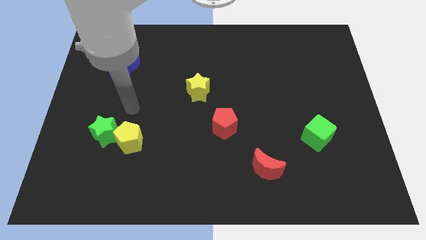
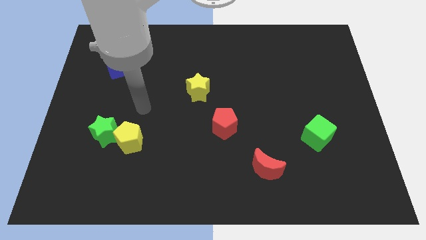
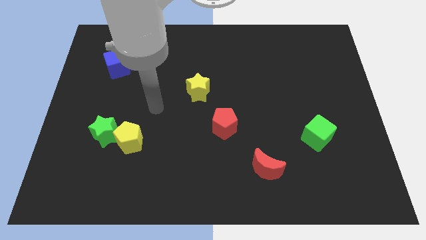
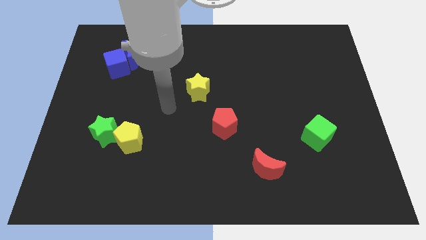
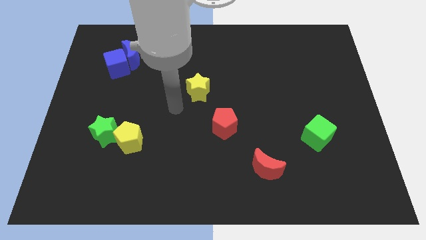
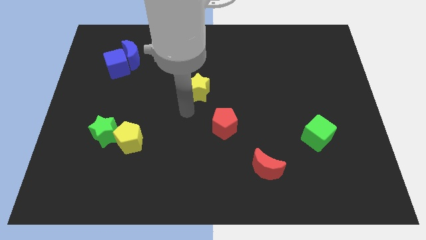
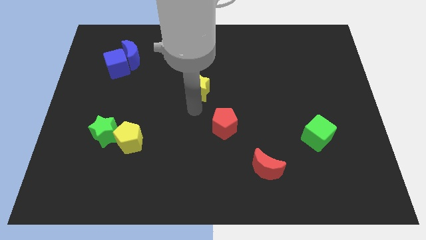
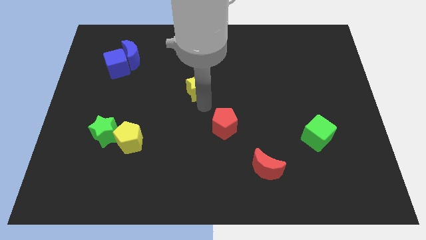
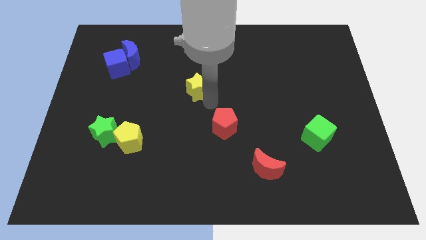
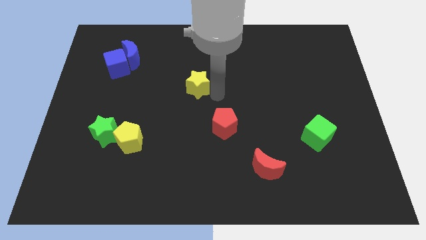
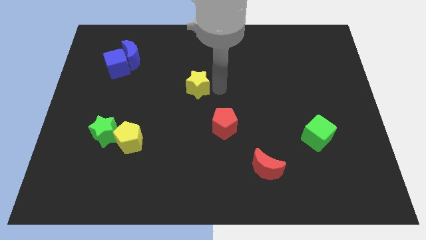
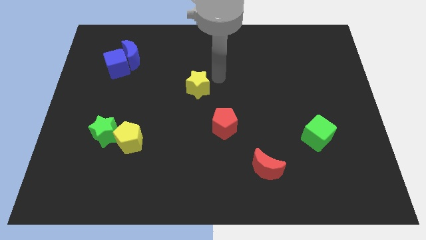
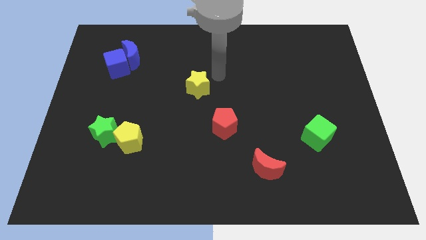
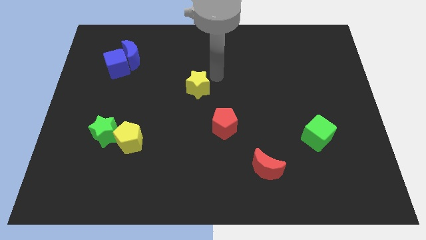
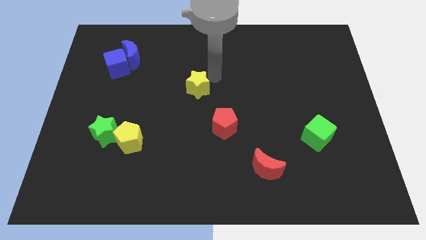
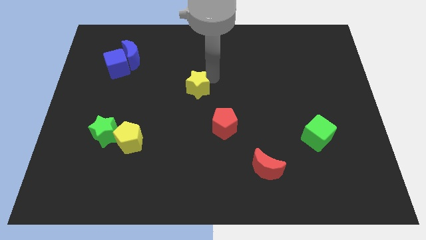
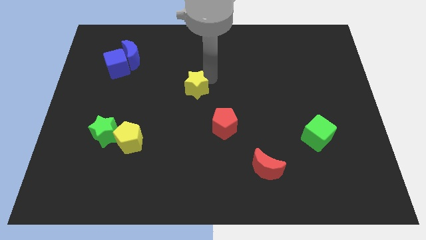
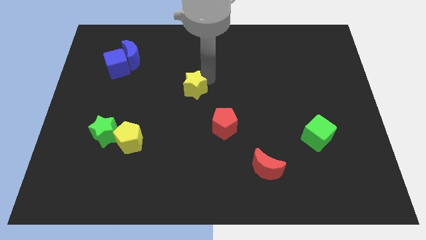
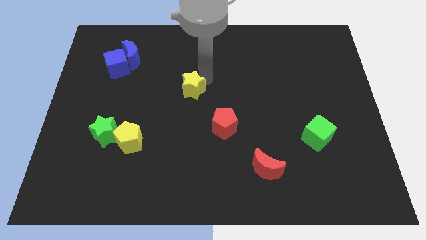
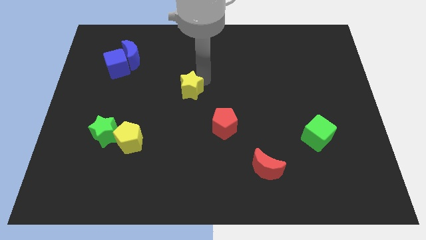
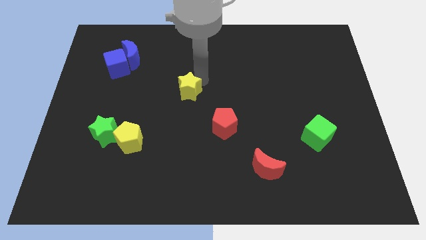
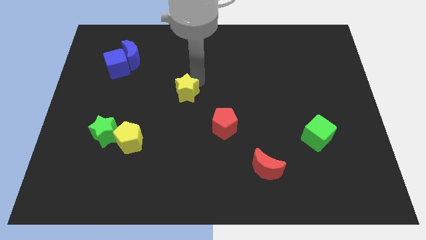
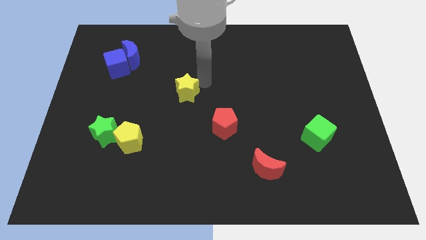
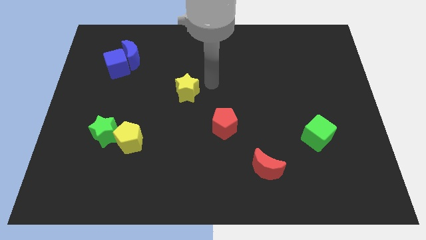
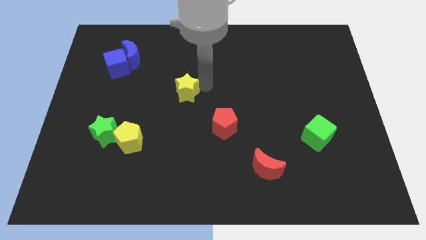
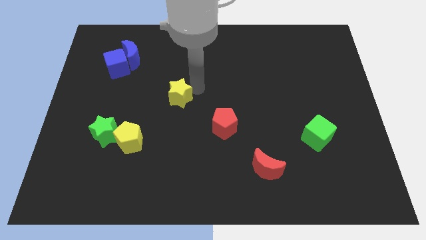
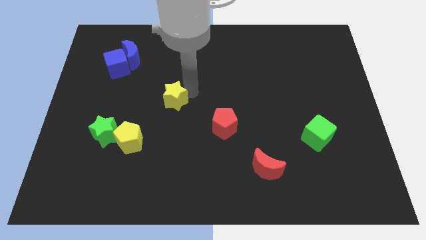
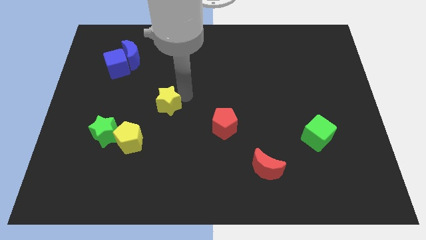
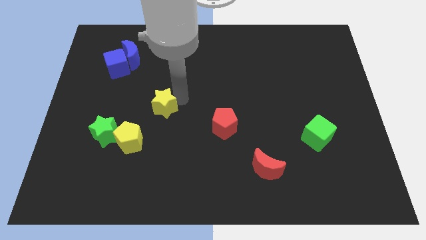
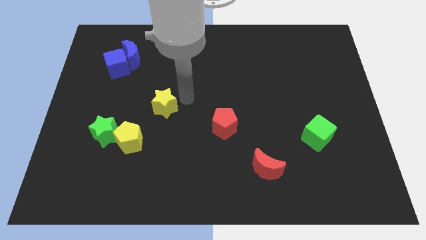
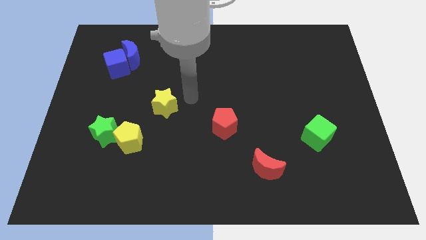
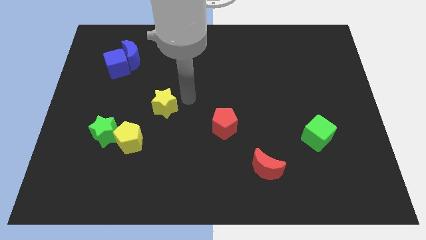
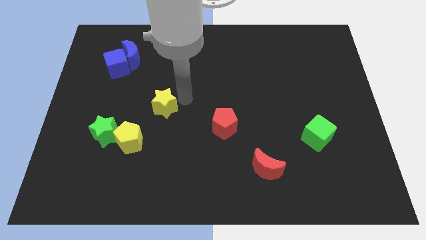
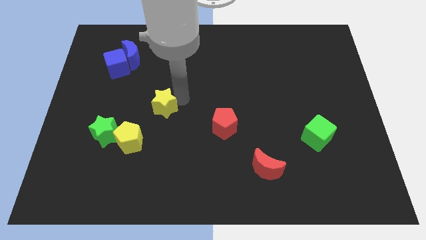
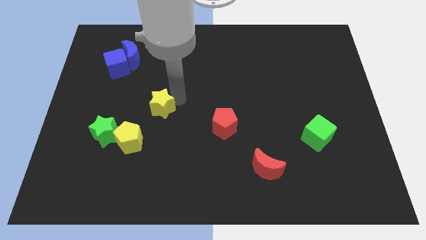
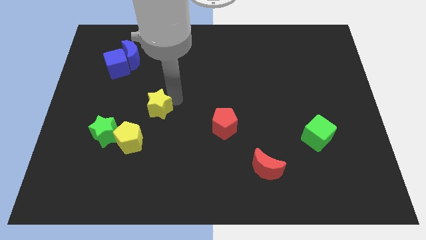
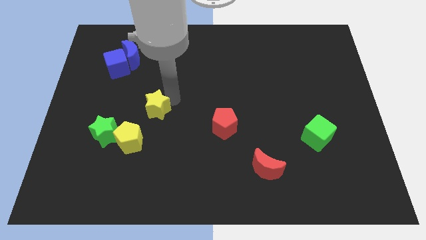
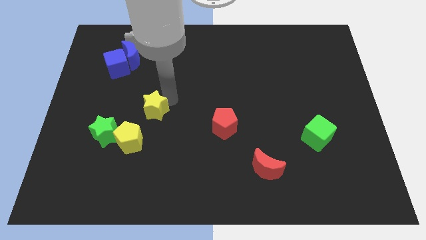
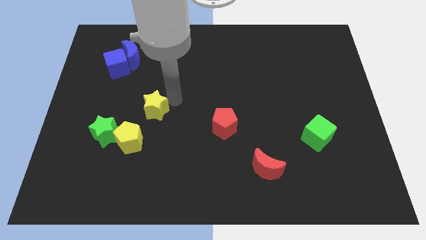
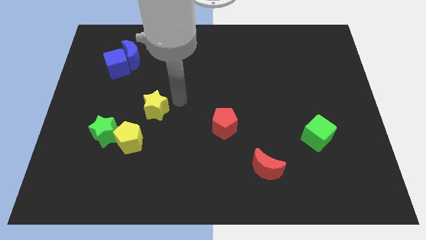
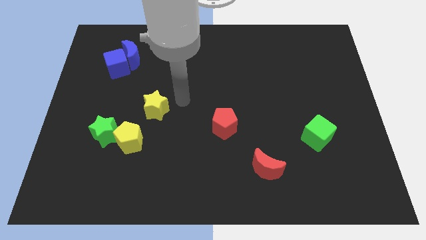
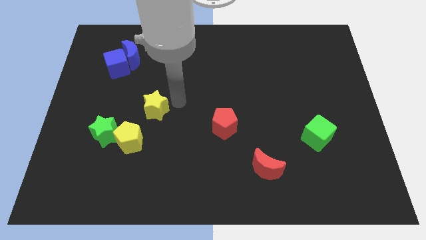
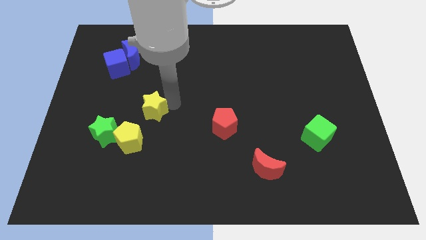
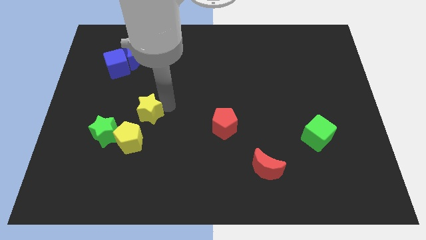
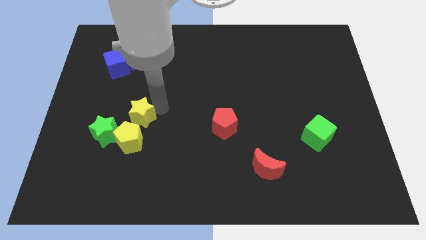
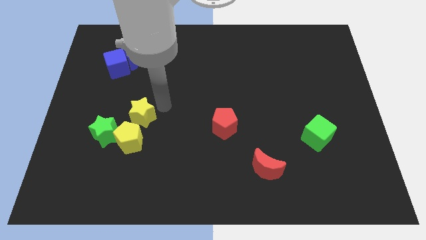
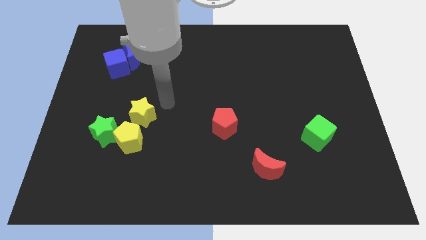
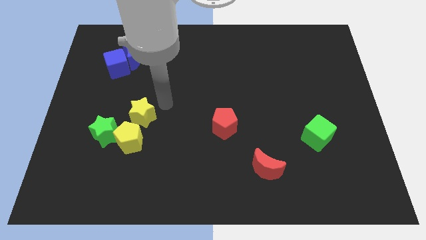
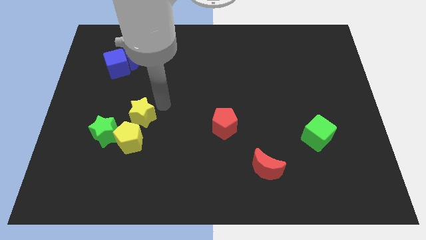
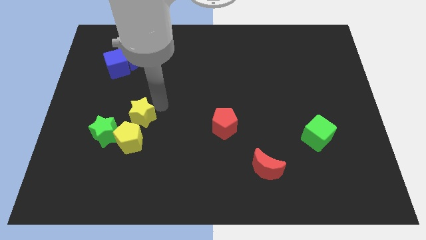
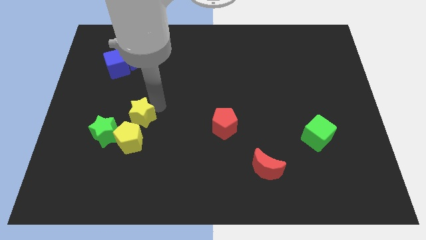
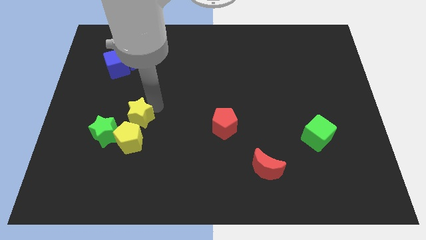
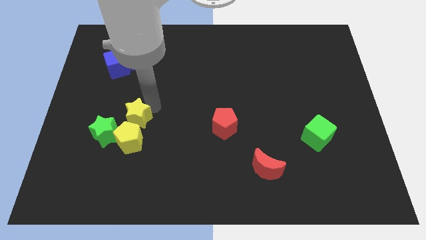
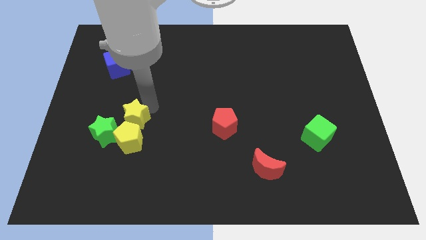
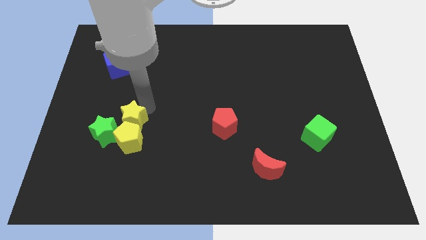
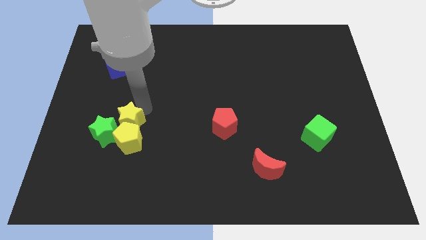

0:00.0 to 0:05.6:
put the yellow star next to the green star

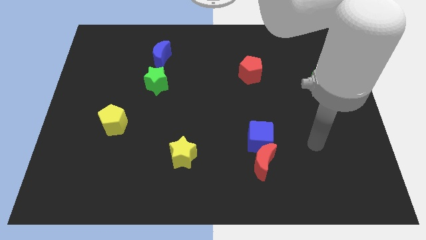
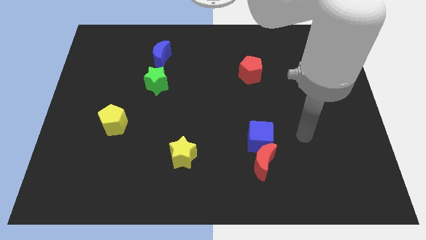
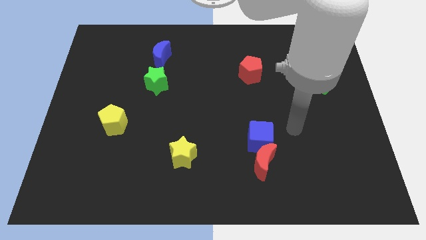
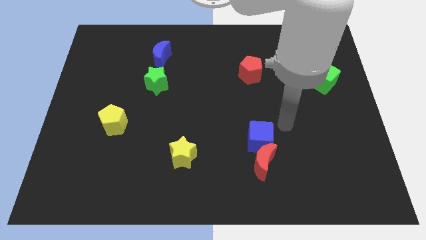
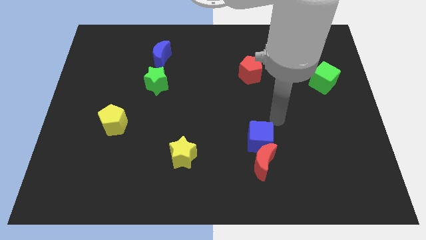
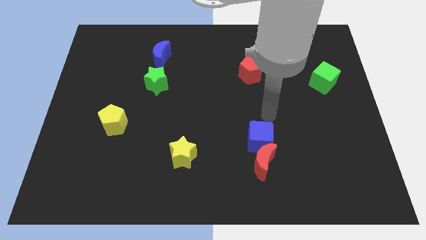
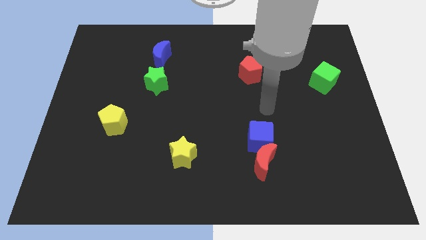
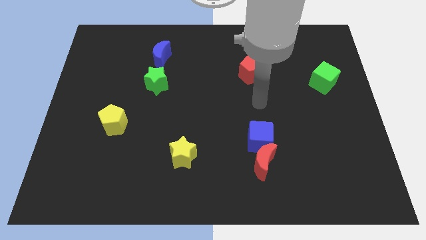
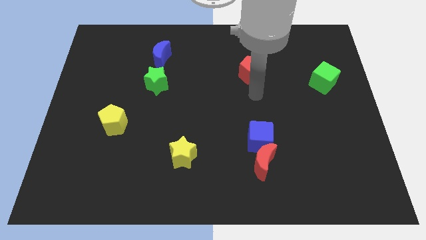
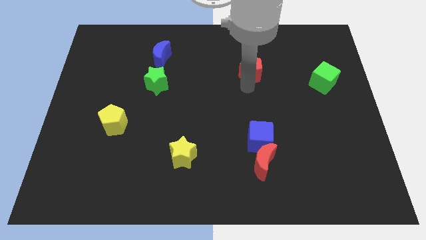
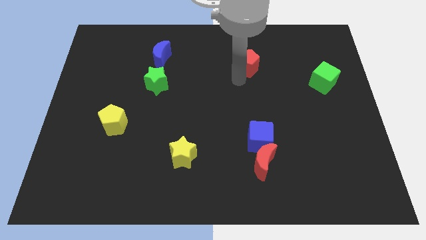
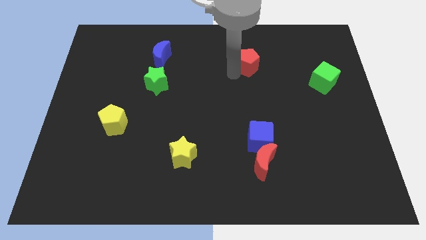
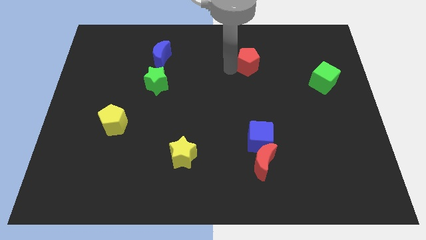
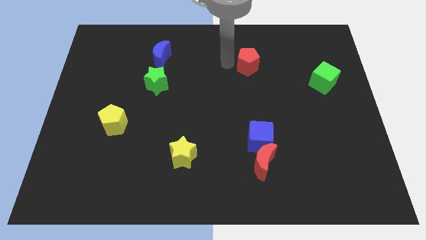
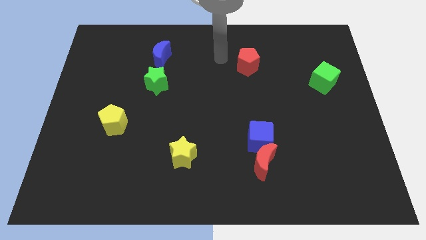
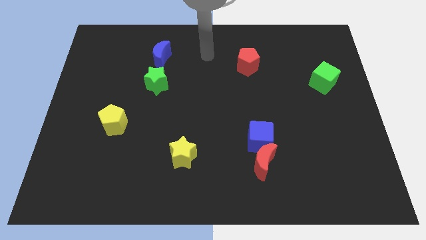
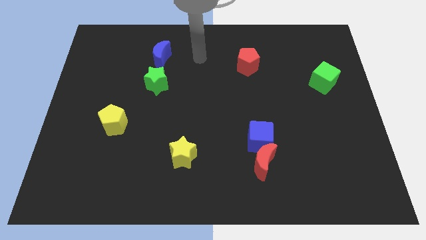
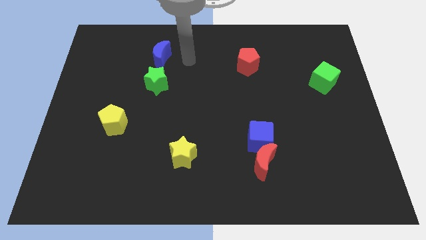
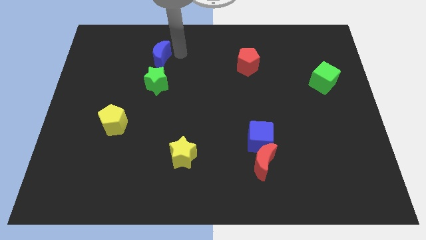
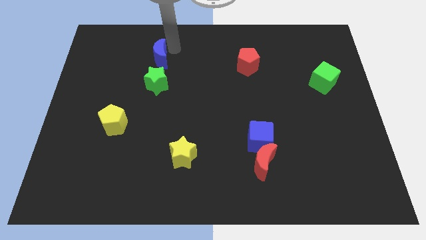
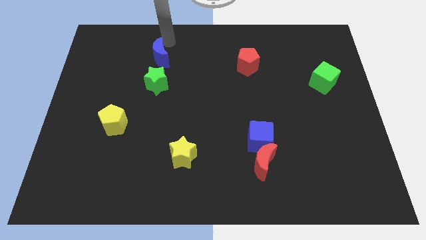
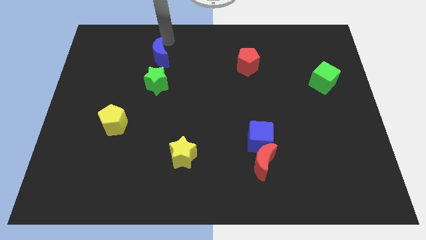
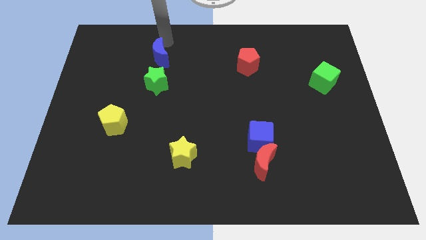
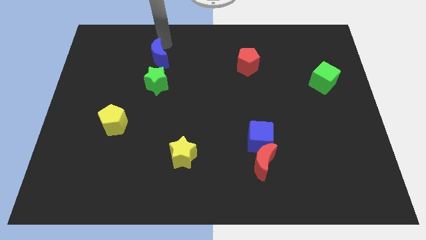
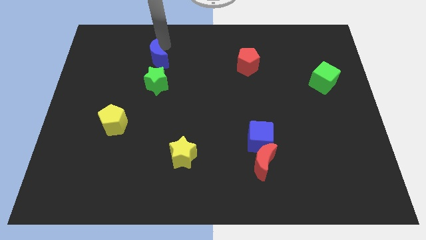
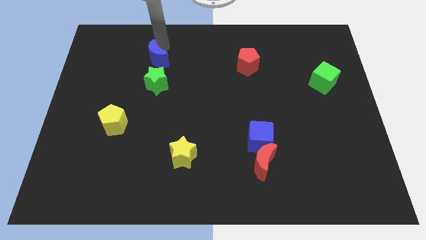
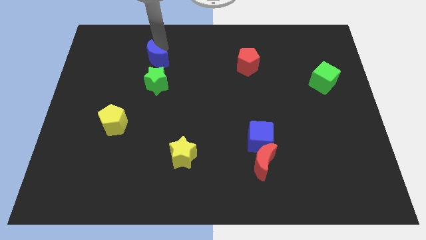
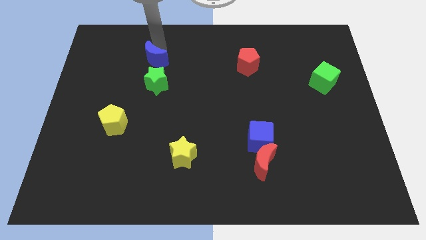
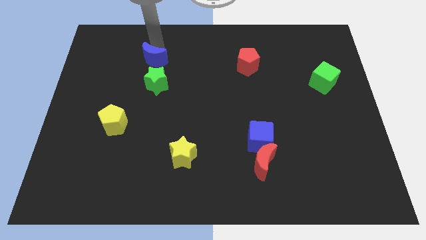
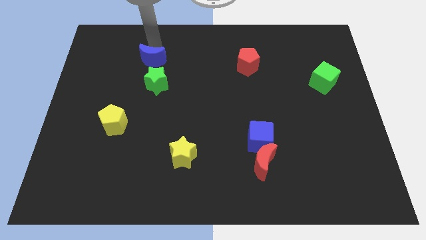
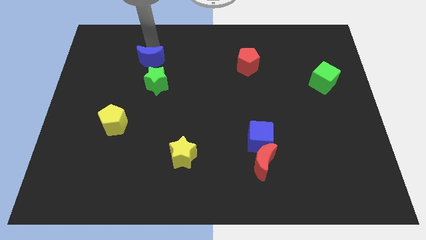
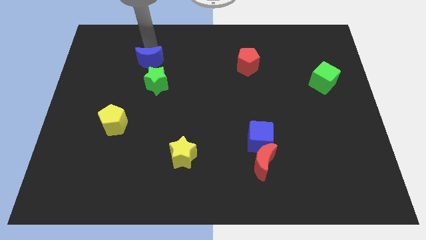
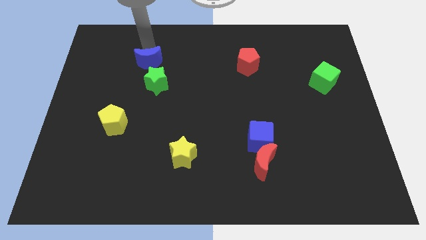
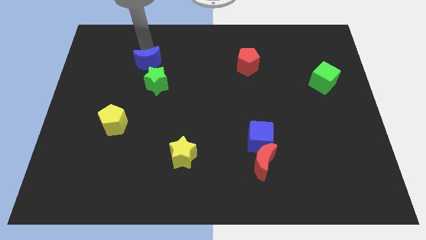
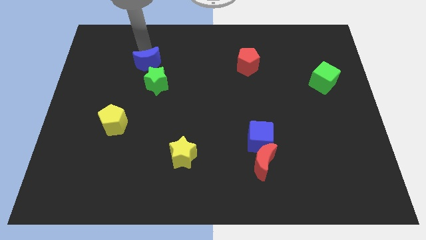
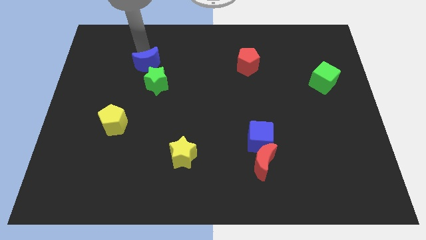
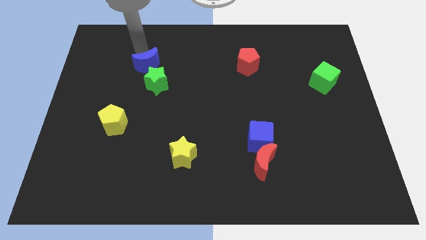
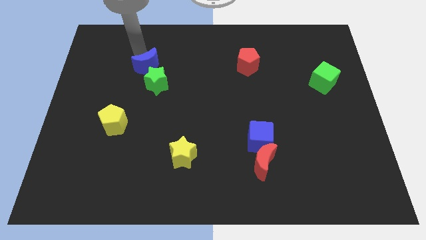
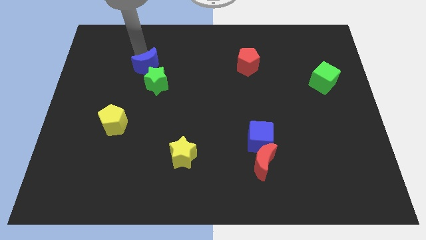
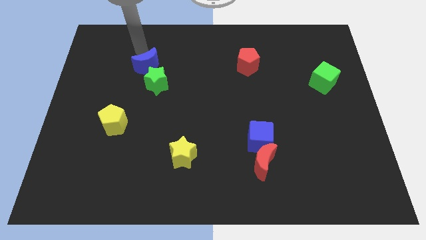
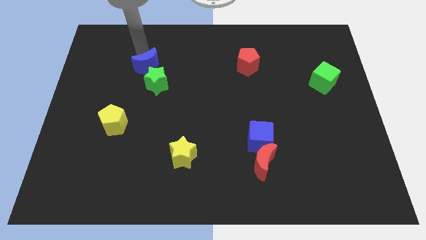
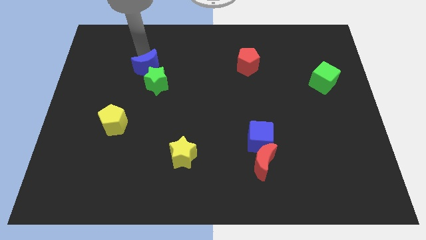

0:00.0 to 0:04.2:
slide the blue moon towards the green star
